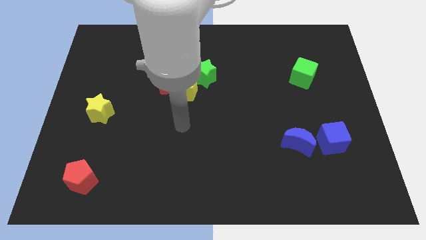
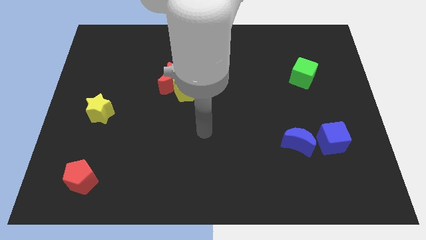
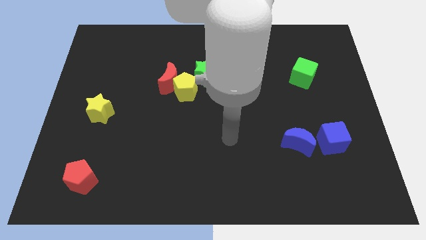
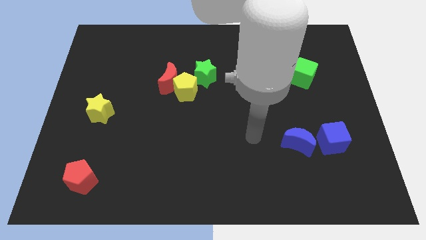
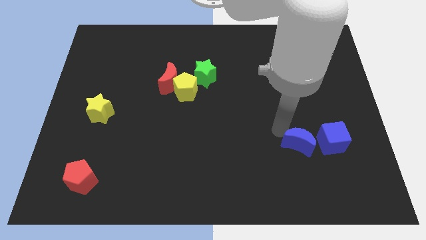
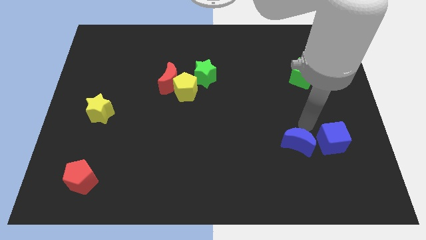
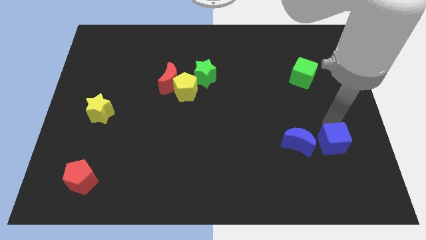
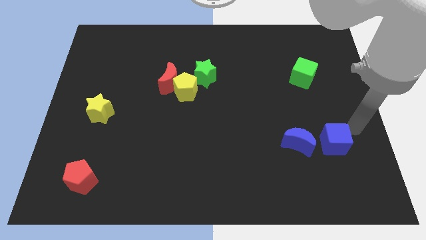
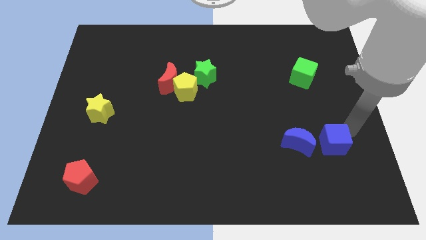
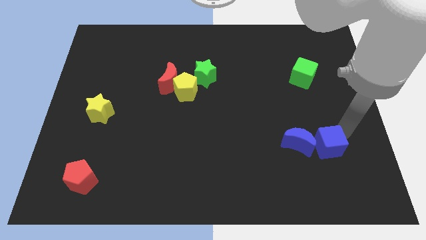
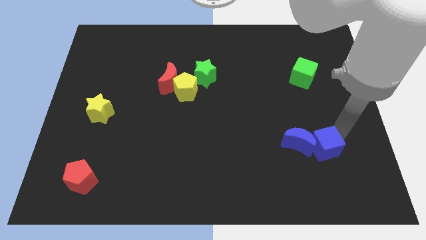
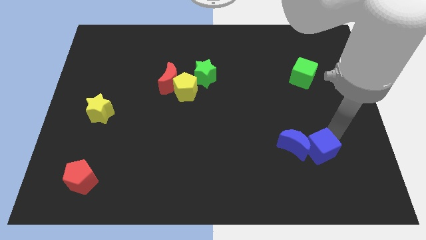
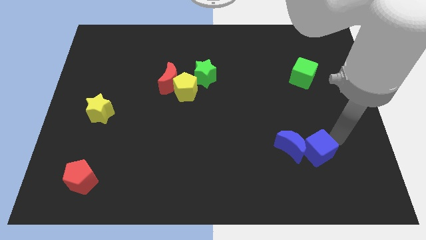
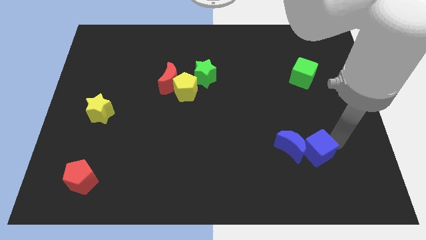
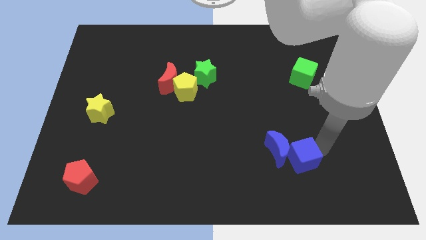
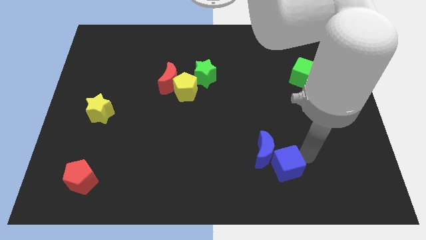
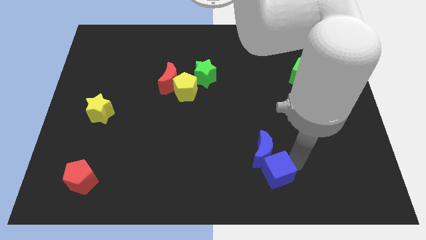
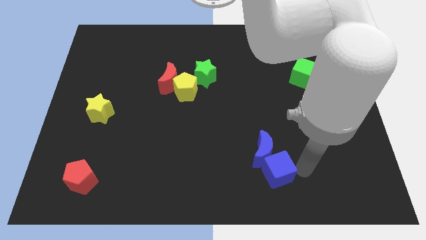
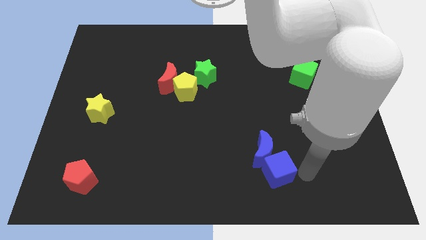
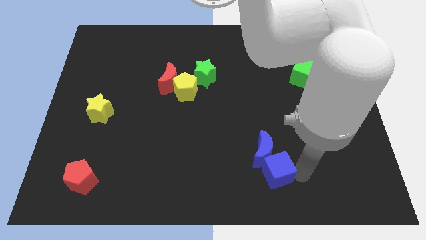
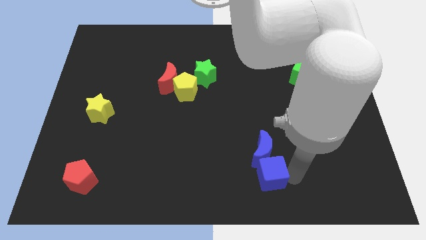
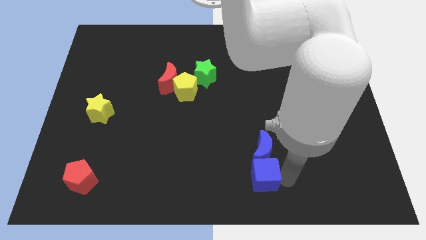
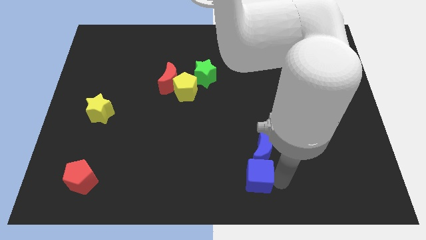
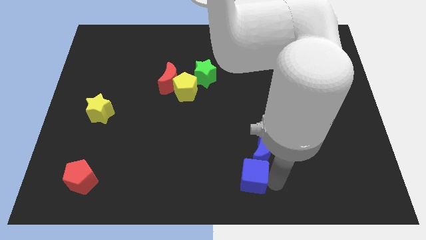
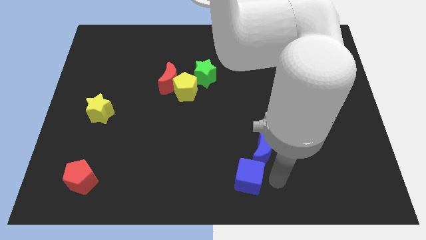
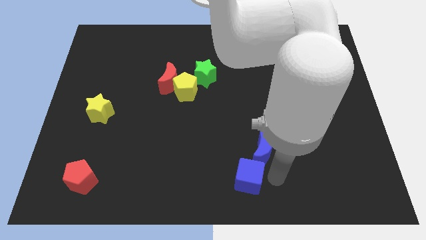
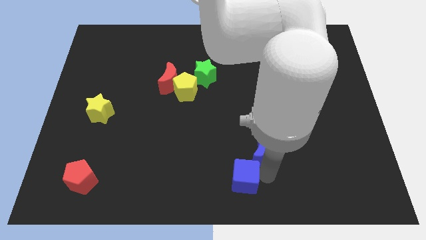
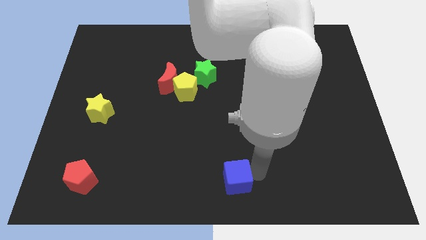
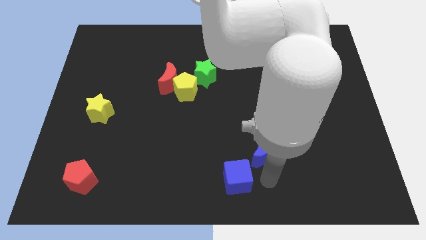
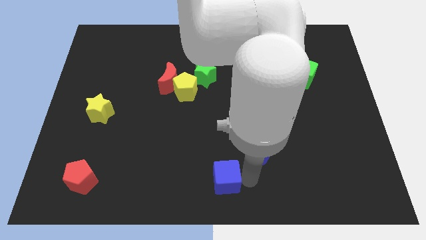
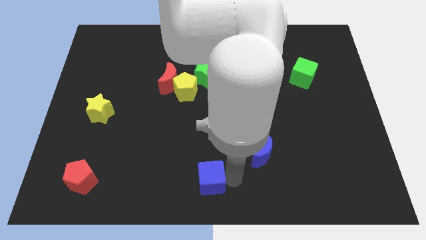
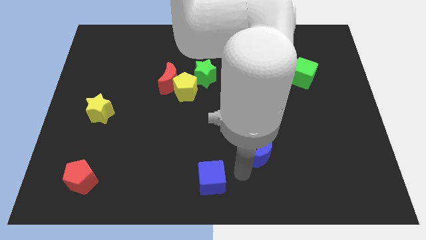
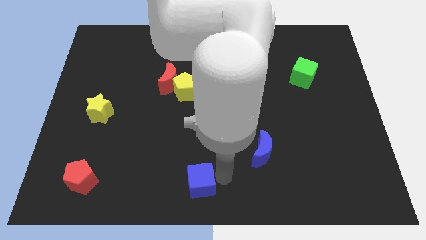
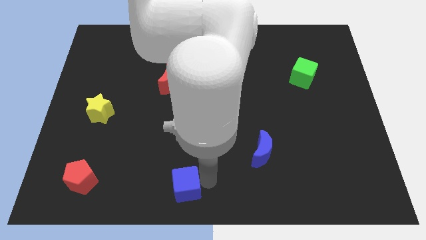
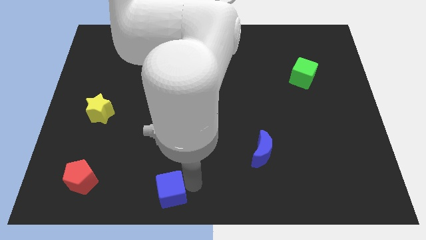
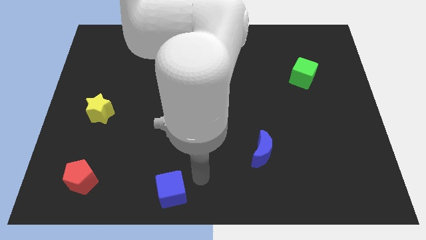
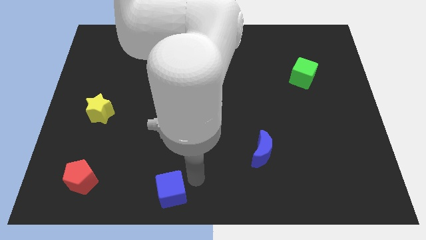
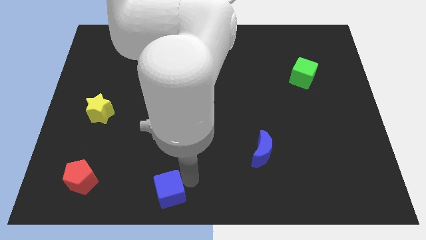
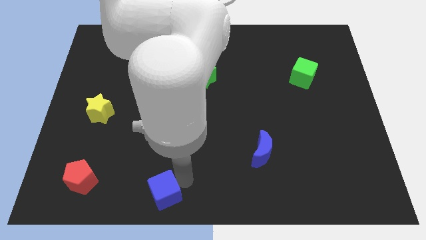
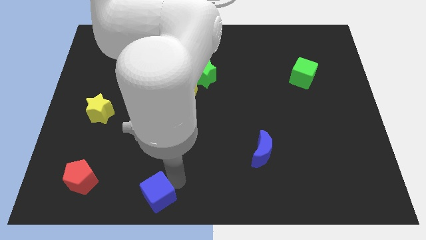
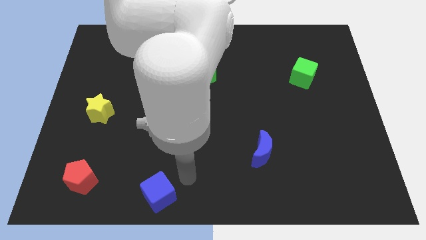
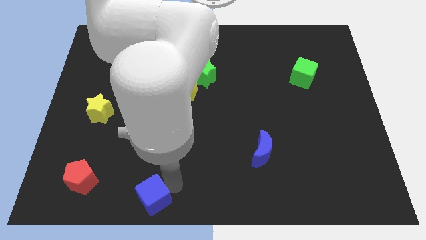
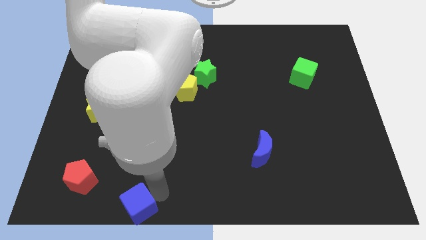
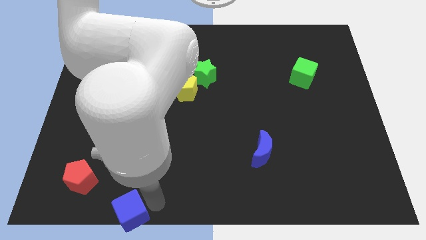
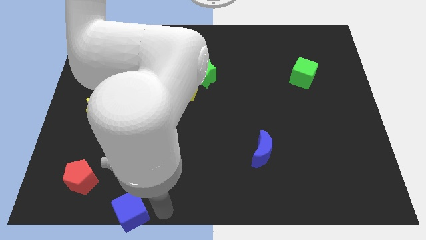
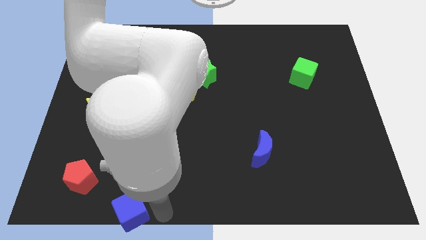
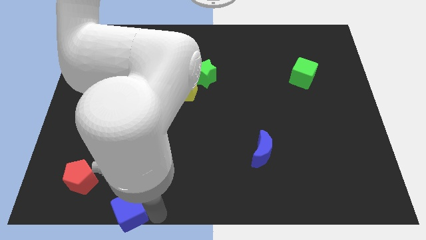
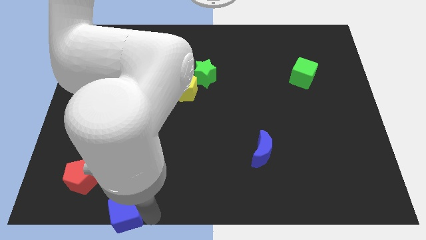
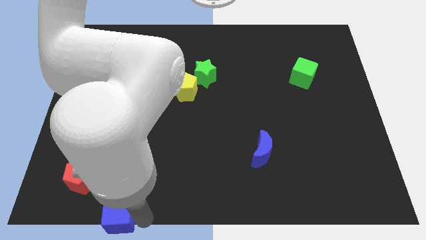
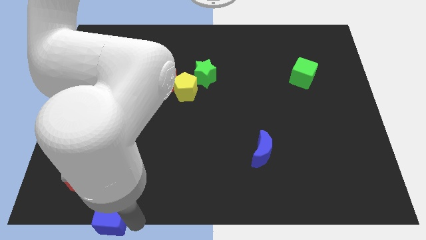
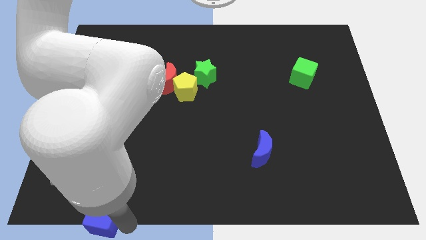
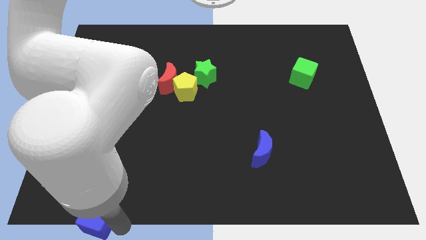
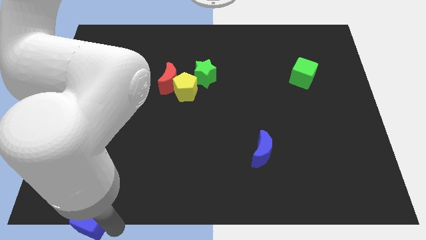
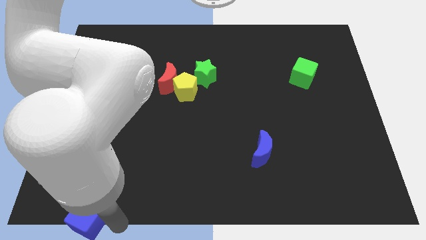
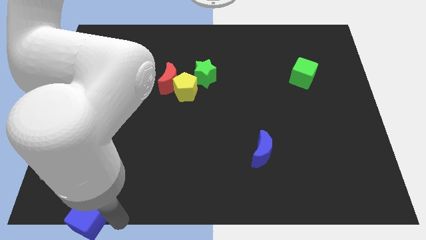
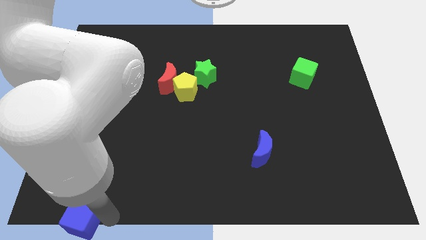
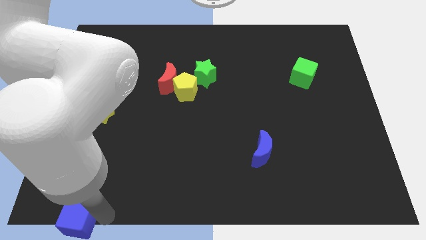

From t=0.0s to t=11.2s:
push the blue cube to the bottom left of the board

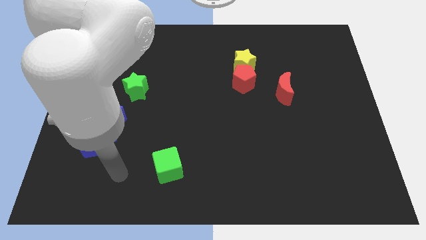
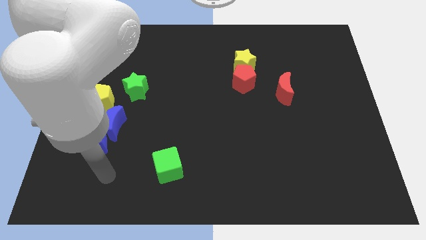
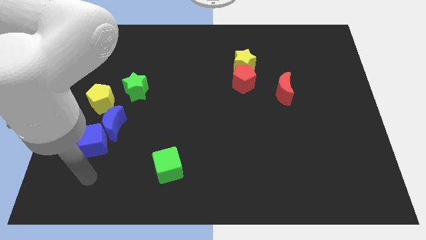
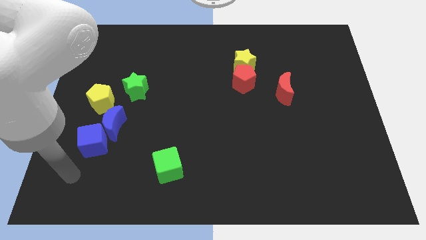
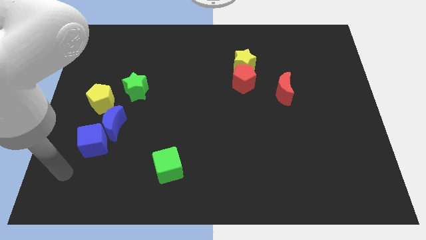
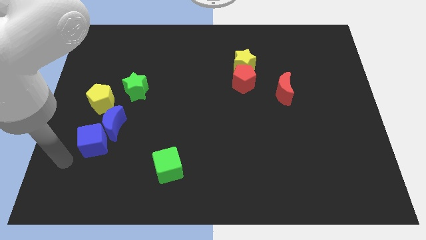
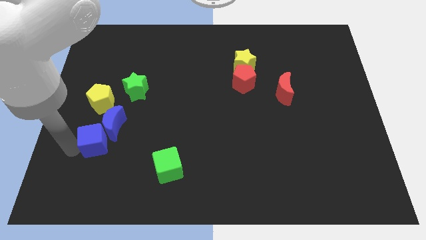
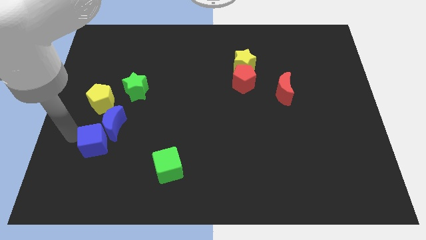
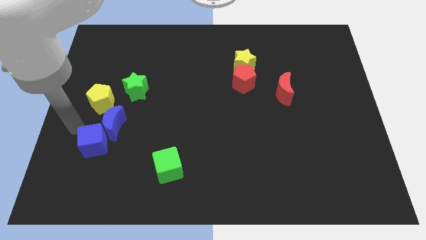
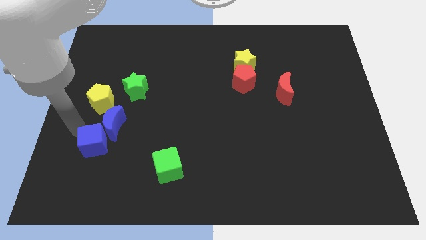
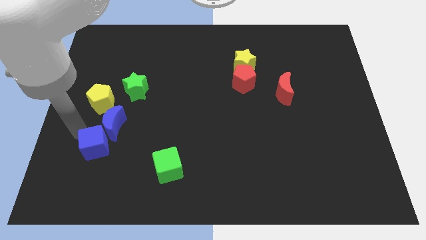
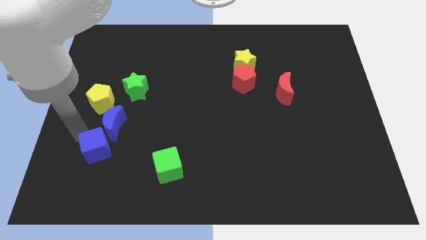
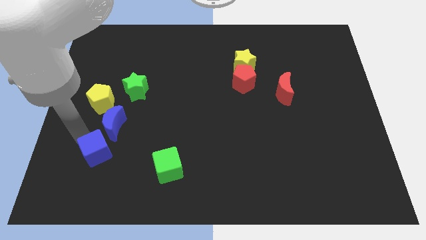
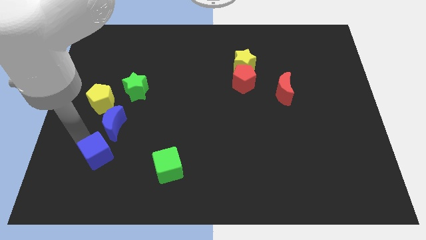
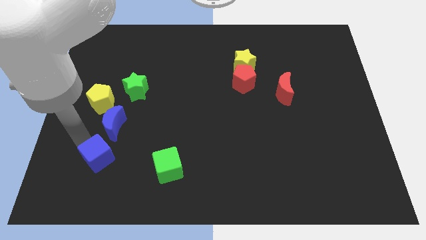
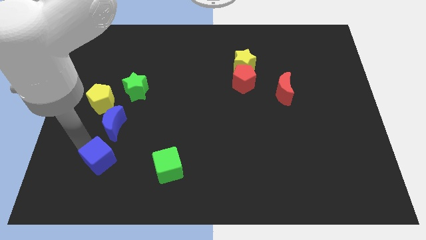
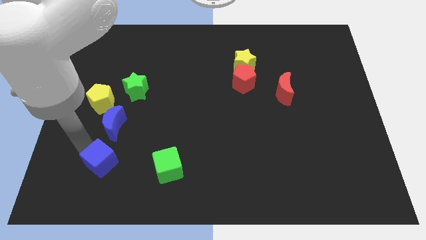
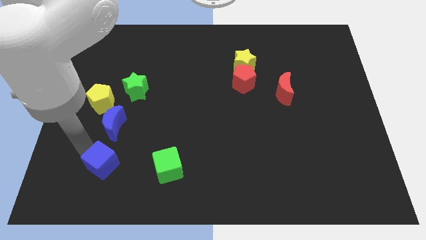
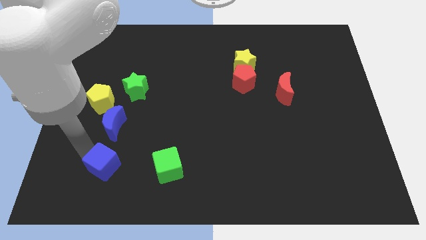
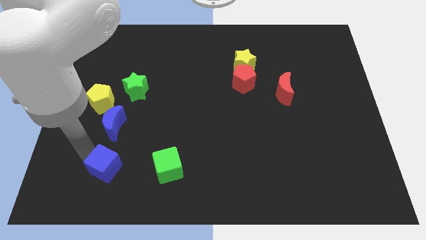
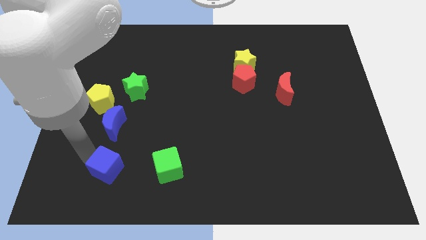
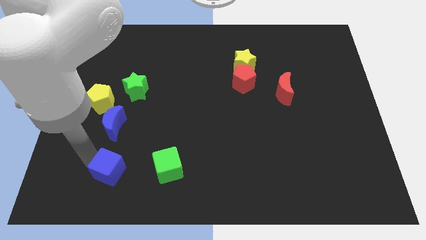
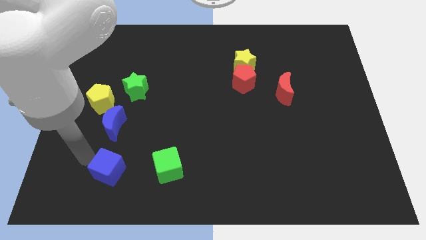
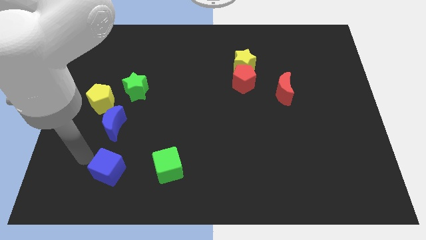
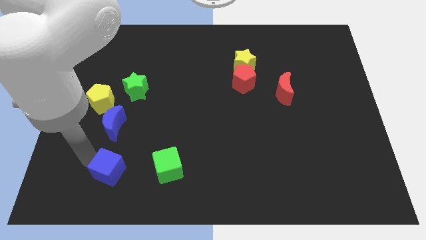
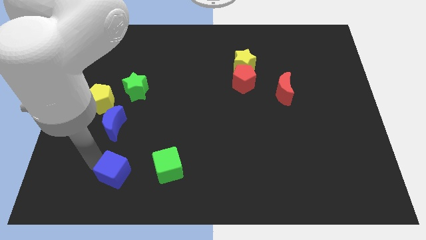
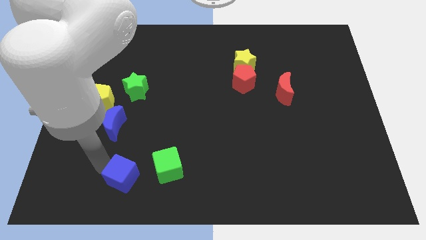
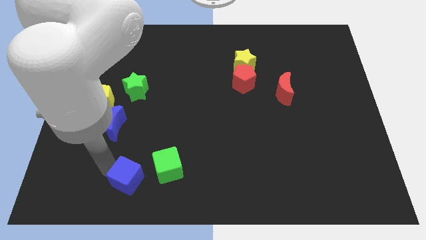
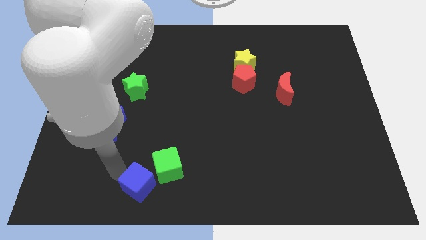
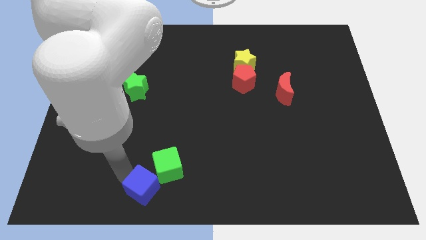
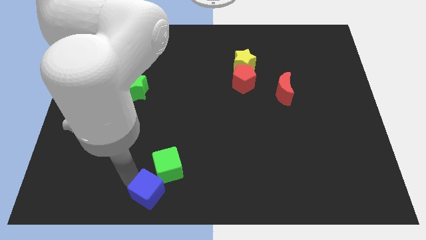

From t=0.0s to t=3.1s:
move the blue cube to the bottom side
